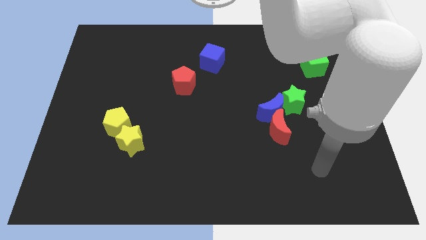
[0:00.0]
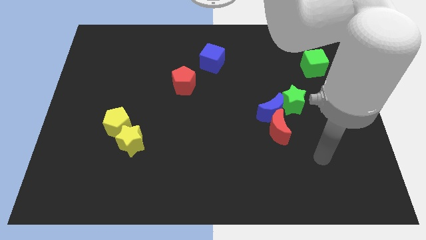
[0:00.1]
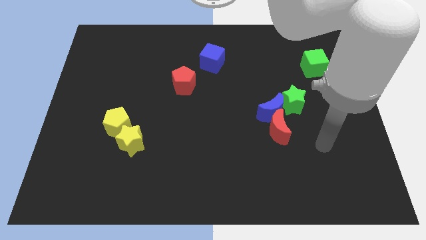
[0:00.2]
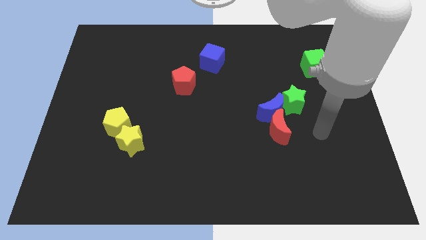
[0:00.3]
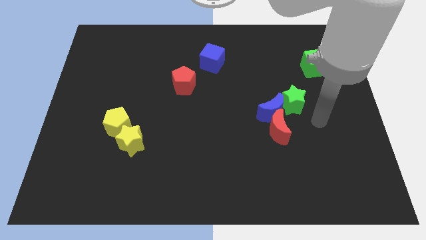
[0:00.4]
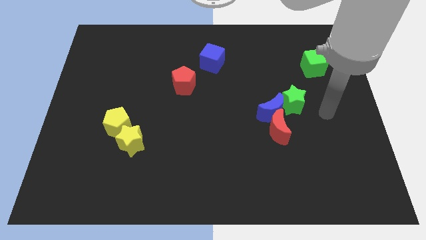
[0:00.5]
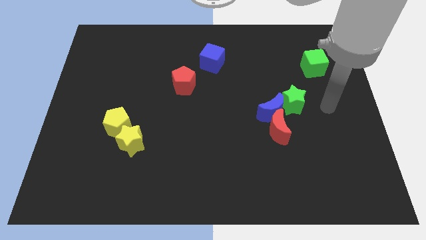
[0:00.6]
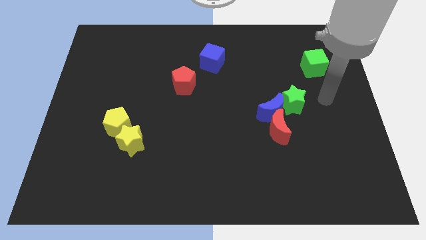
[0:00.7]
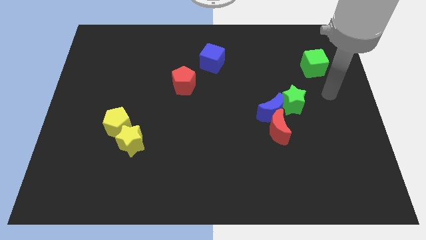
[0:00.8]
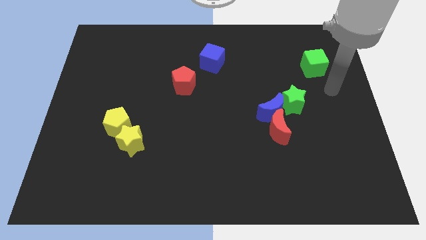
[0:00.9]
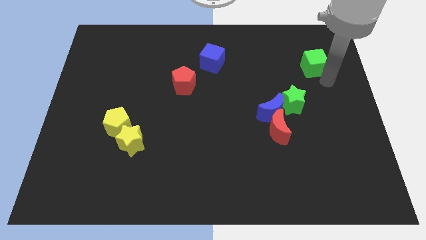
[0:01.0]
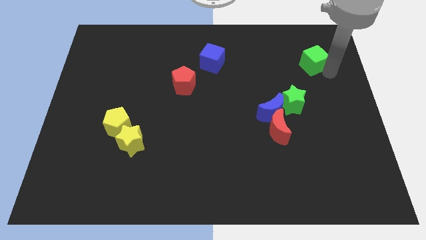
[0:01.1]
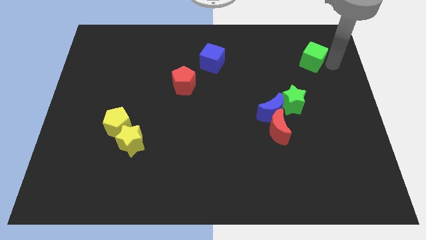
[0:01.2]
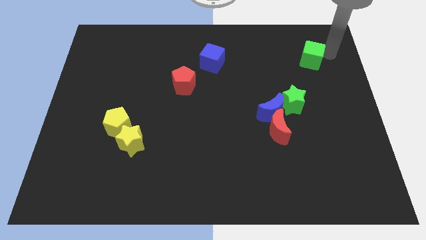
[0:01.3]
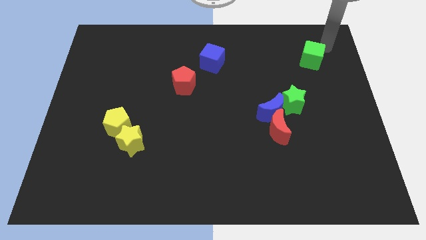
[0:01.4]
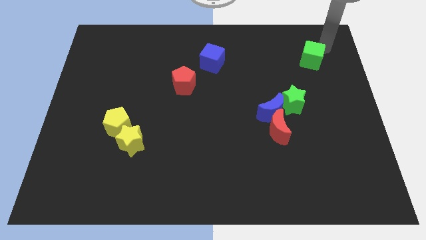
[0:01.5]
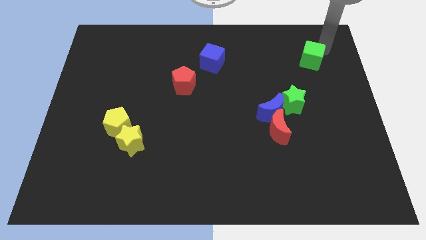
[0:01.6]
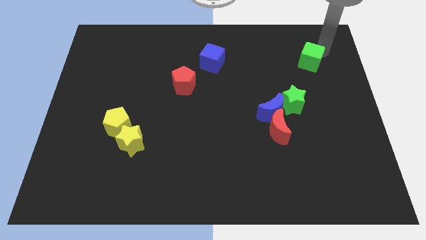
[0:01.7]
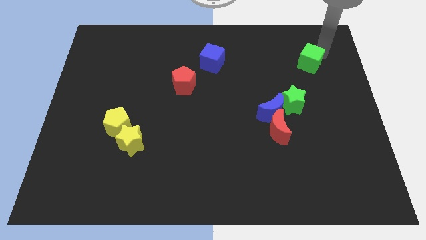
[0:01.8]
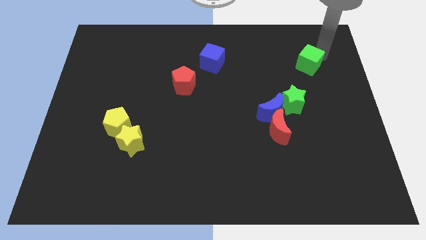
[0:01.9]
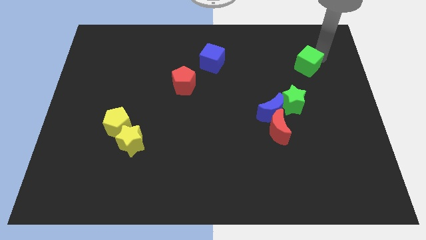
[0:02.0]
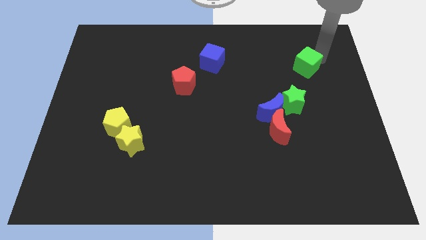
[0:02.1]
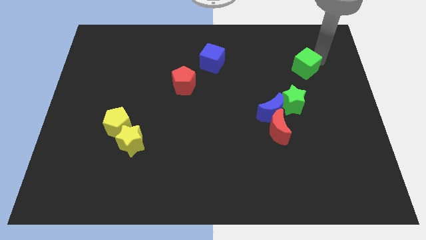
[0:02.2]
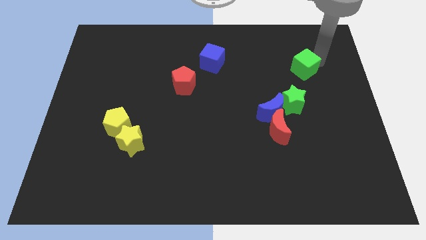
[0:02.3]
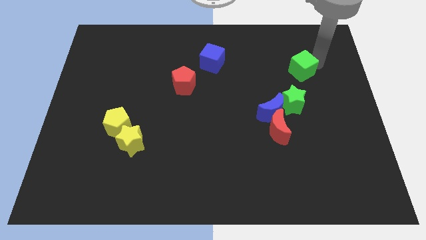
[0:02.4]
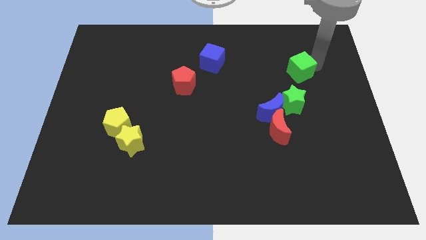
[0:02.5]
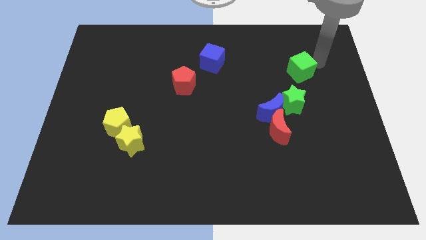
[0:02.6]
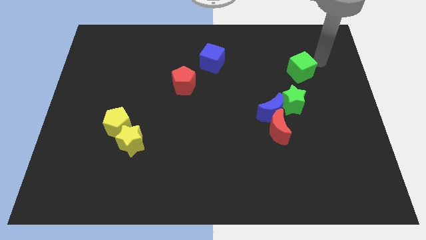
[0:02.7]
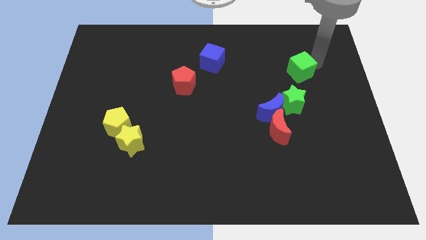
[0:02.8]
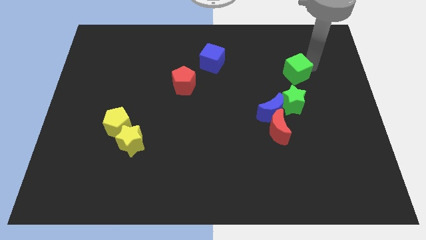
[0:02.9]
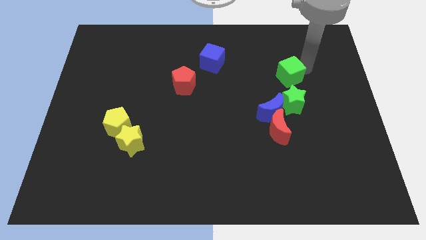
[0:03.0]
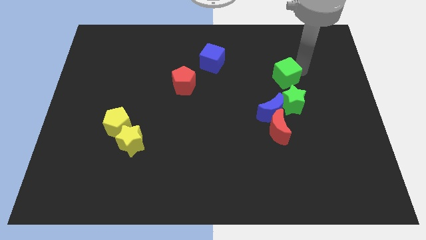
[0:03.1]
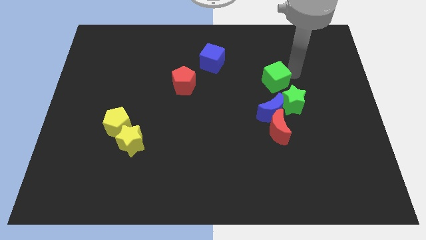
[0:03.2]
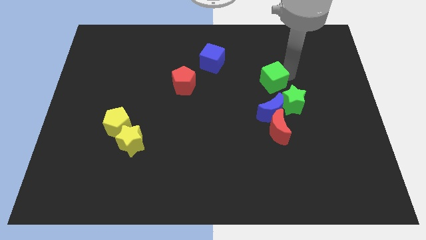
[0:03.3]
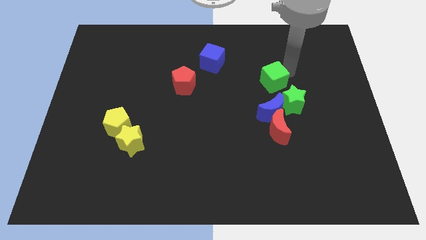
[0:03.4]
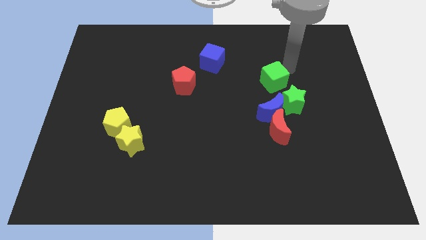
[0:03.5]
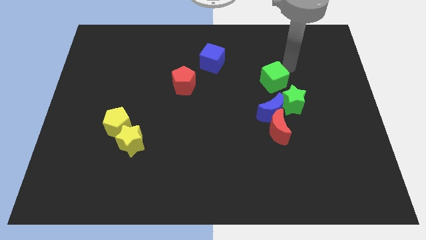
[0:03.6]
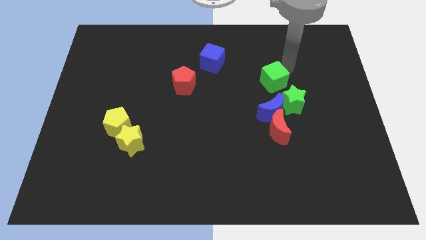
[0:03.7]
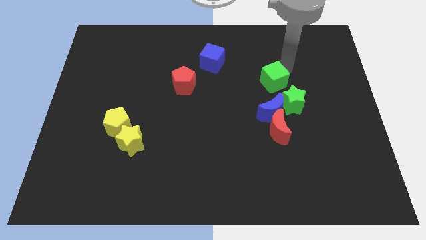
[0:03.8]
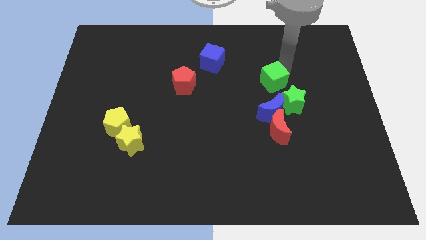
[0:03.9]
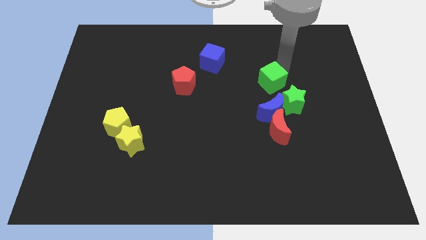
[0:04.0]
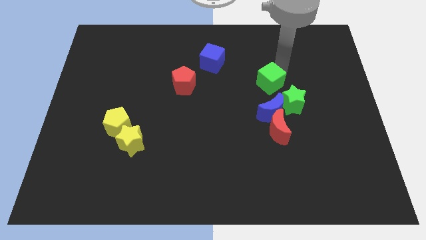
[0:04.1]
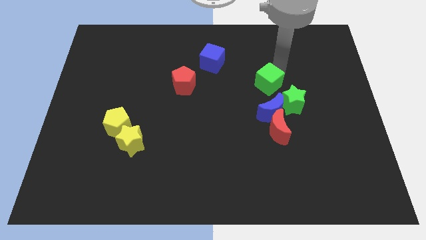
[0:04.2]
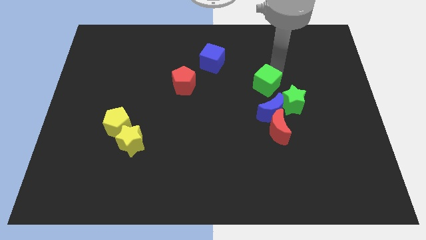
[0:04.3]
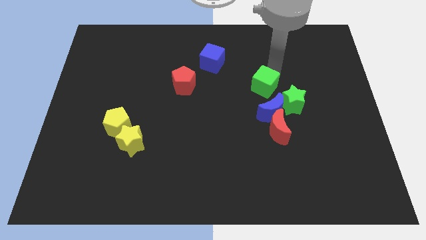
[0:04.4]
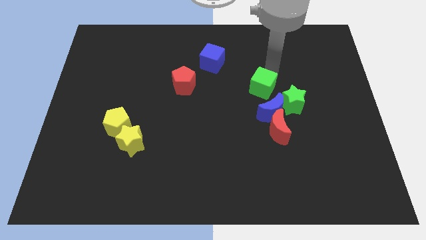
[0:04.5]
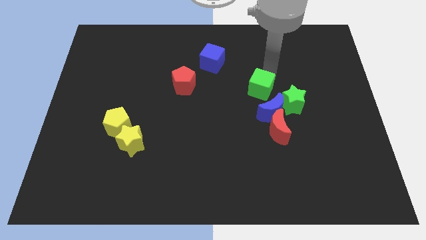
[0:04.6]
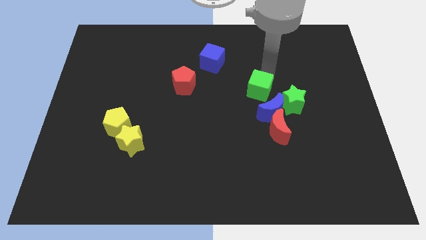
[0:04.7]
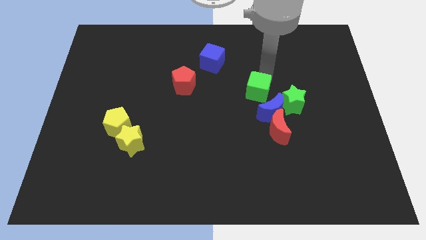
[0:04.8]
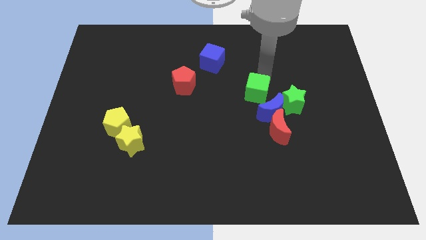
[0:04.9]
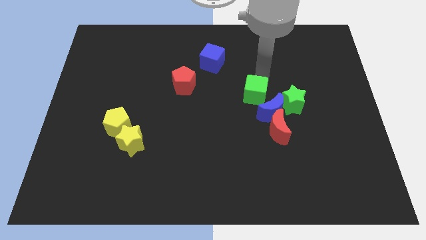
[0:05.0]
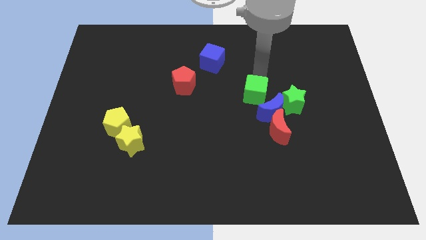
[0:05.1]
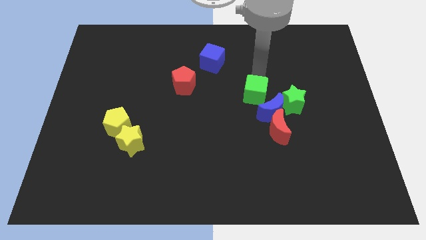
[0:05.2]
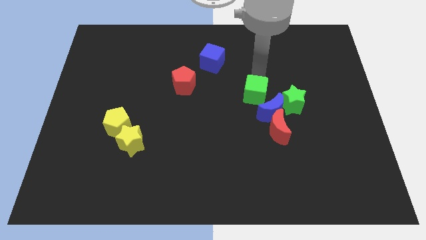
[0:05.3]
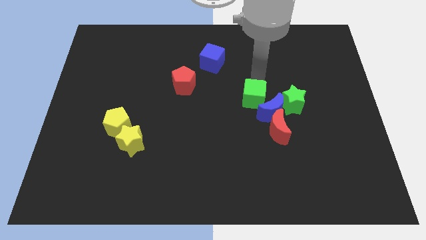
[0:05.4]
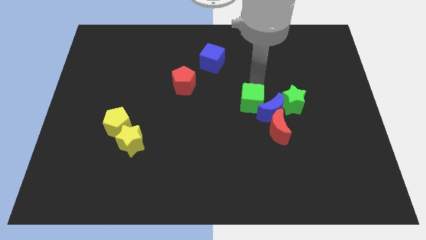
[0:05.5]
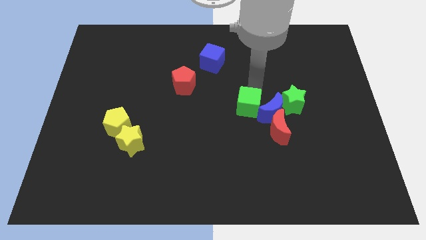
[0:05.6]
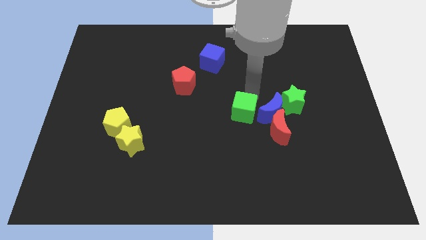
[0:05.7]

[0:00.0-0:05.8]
push the green cube to the bottom left of the blue moon

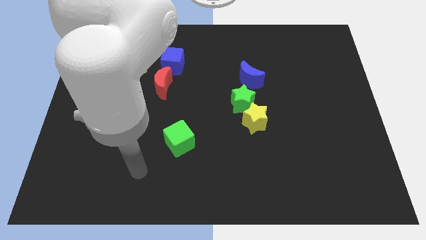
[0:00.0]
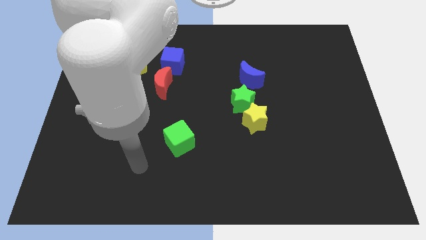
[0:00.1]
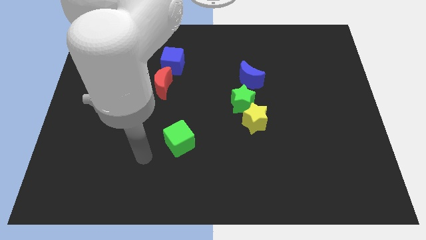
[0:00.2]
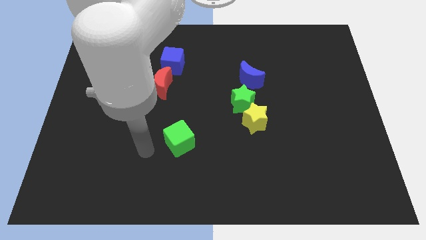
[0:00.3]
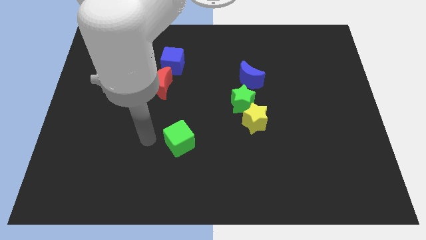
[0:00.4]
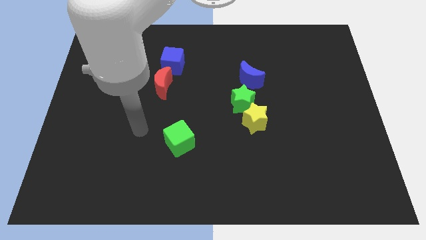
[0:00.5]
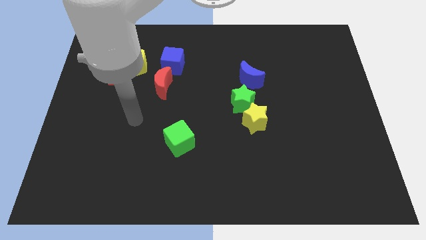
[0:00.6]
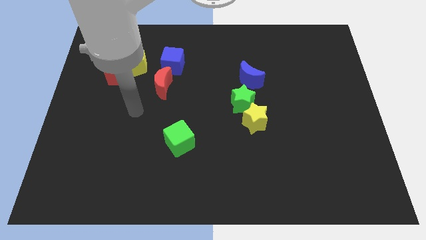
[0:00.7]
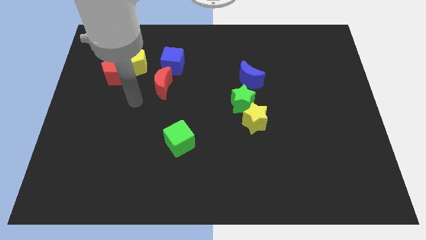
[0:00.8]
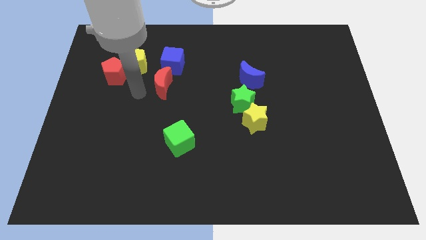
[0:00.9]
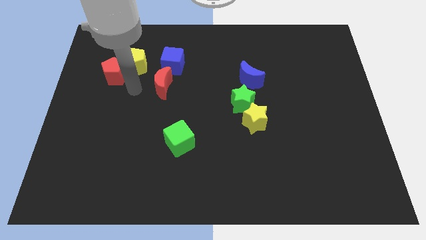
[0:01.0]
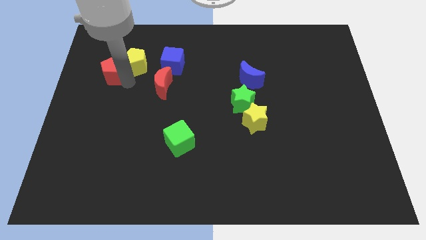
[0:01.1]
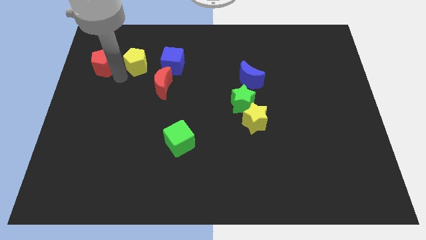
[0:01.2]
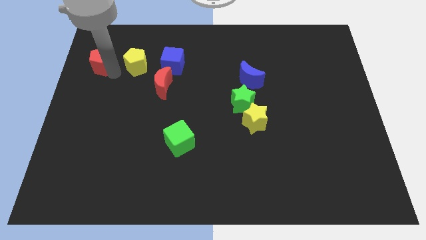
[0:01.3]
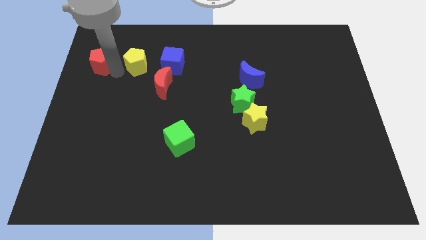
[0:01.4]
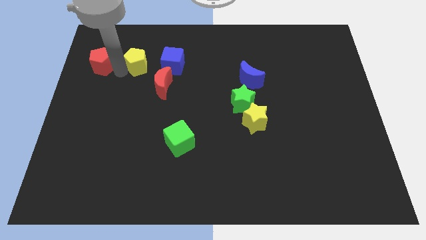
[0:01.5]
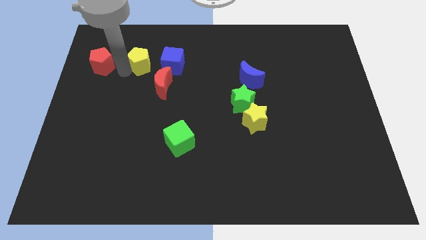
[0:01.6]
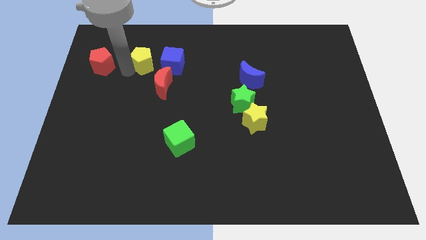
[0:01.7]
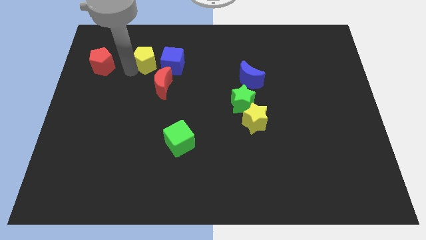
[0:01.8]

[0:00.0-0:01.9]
push the yellow pentagon to the top of the red moon

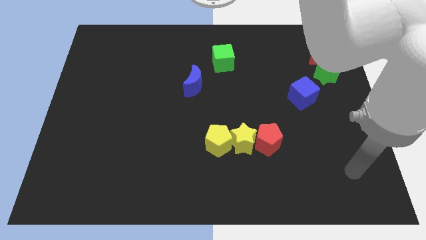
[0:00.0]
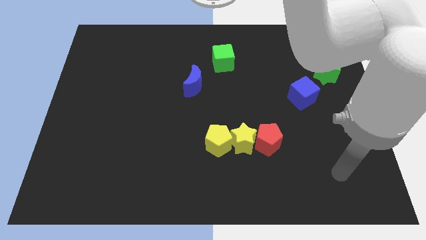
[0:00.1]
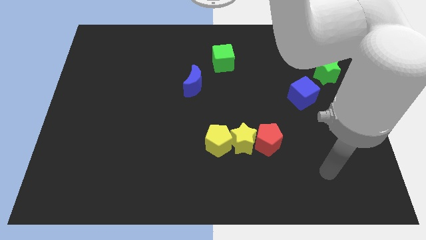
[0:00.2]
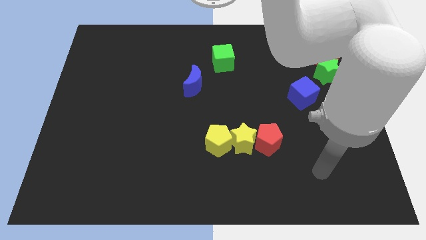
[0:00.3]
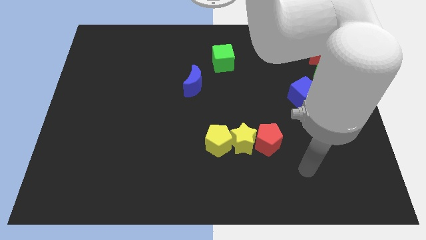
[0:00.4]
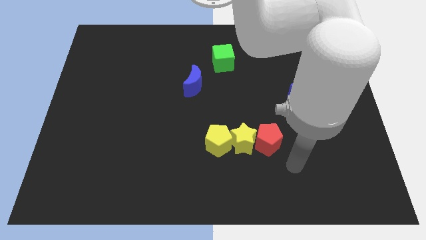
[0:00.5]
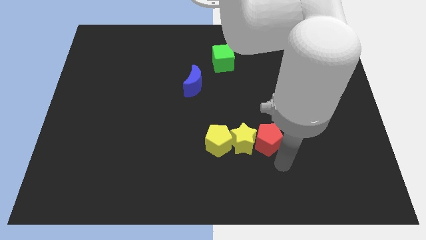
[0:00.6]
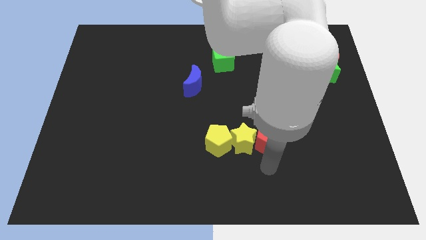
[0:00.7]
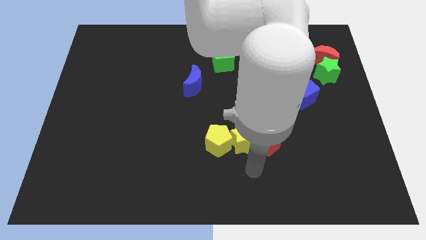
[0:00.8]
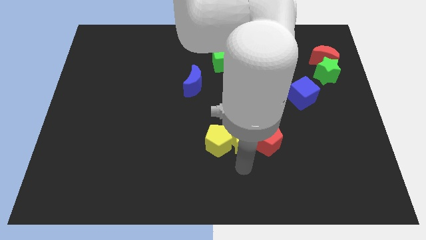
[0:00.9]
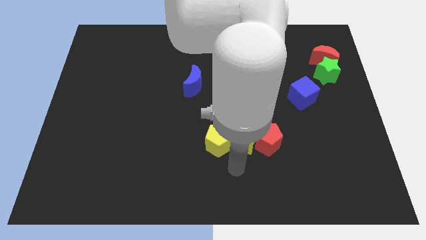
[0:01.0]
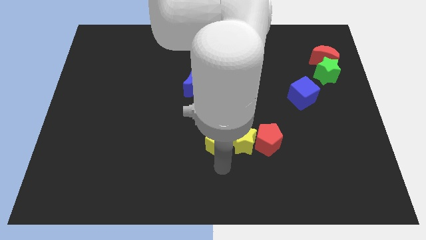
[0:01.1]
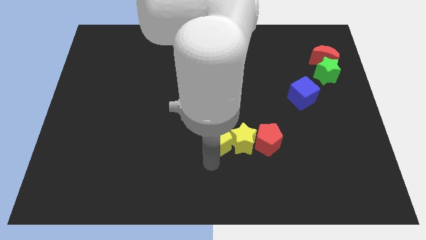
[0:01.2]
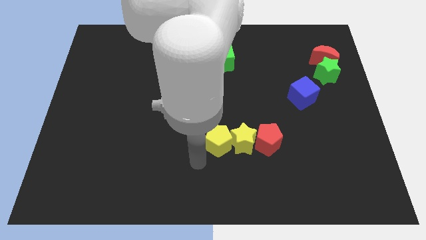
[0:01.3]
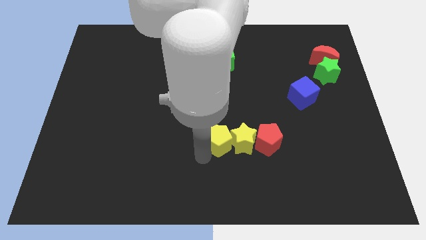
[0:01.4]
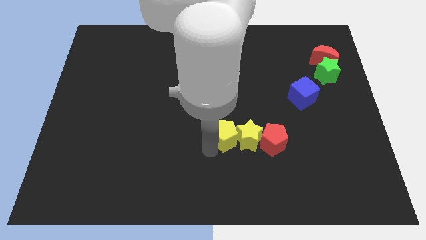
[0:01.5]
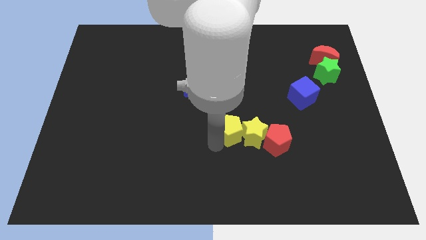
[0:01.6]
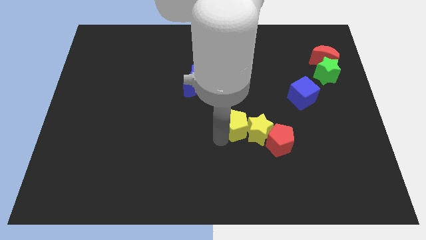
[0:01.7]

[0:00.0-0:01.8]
put the yellow pentagon to the top left of the red pentagon
